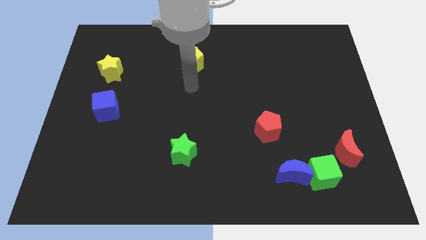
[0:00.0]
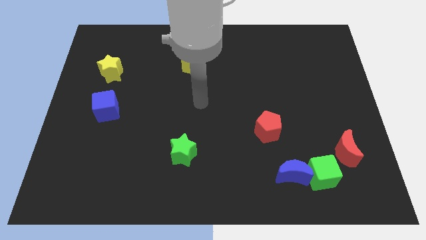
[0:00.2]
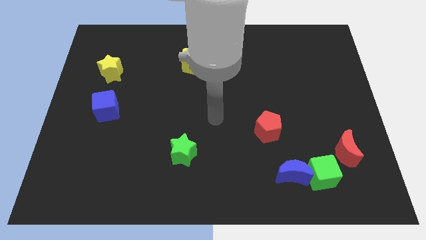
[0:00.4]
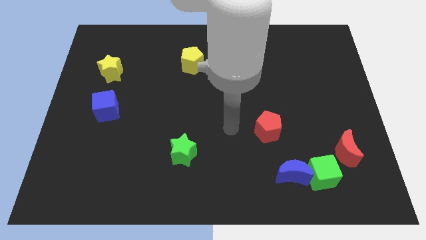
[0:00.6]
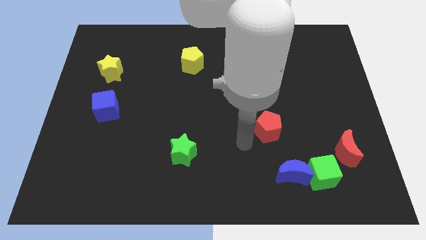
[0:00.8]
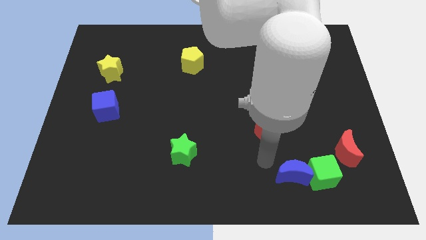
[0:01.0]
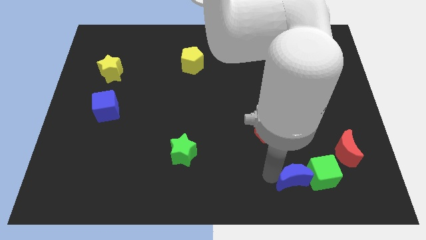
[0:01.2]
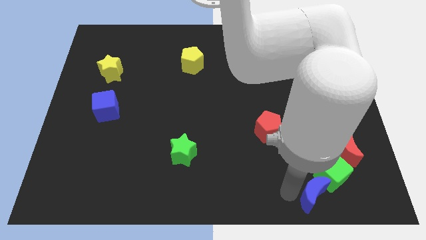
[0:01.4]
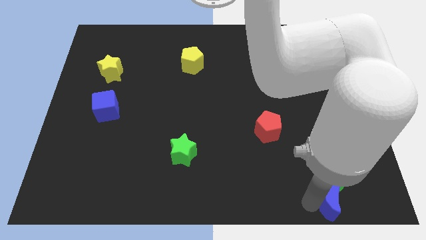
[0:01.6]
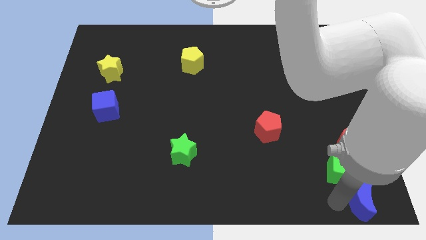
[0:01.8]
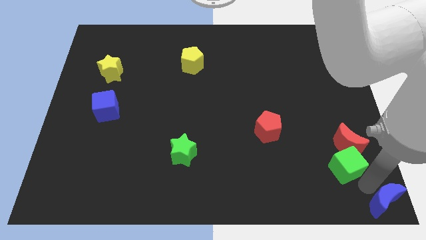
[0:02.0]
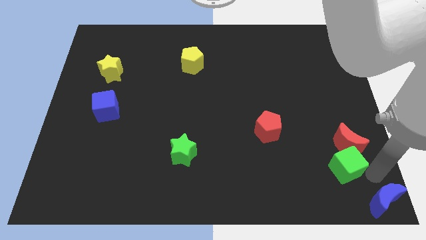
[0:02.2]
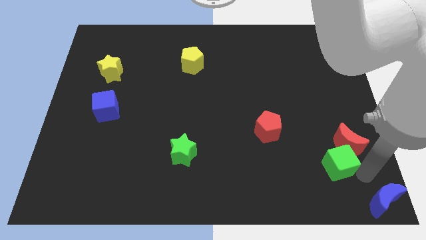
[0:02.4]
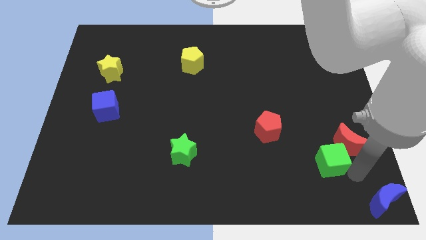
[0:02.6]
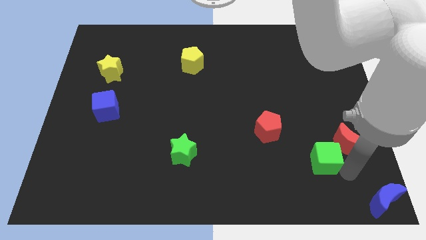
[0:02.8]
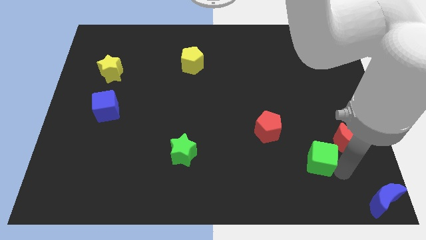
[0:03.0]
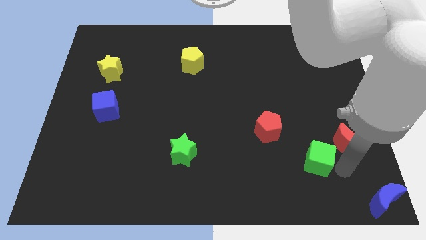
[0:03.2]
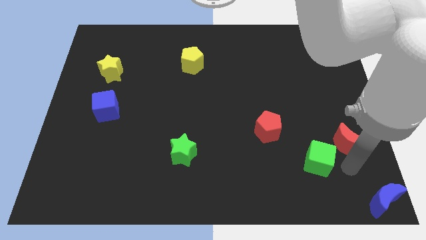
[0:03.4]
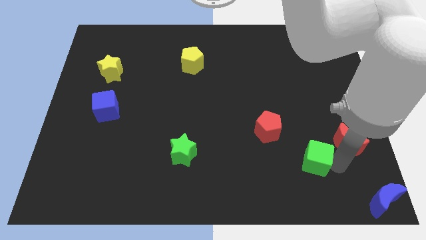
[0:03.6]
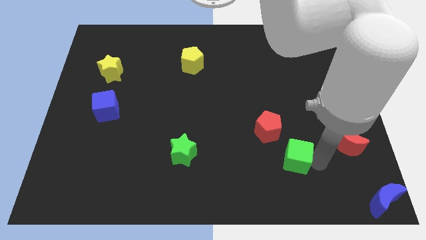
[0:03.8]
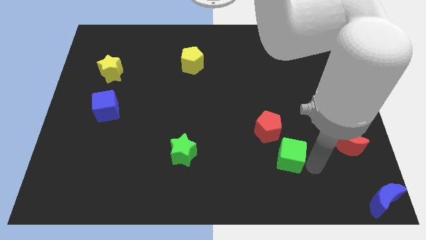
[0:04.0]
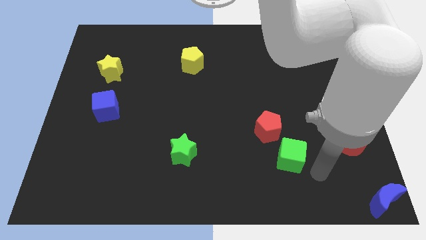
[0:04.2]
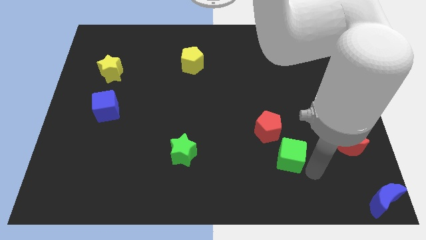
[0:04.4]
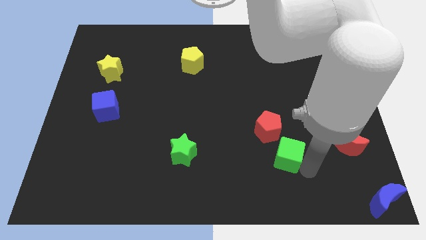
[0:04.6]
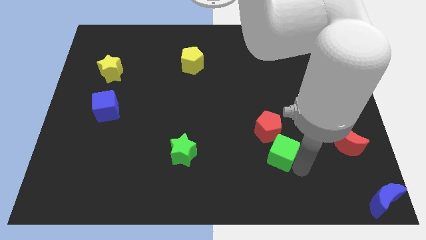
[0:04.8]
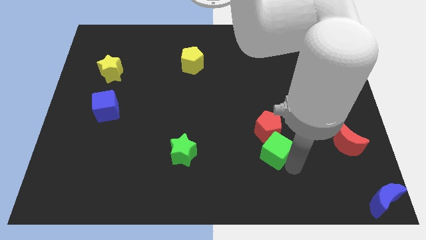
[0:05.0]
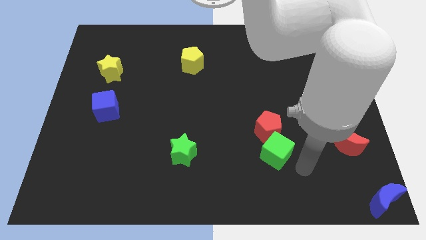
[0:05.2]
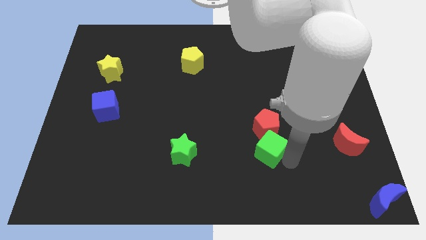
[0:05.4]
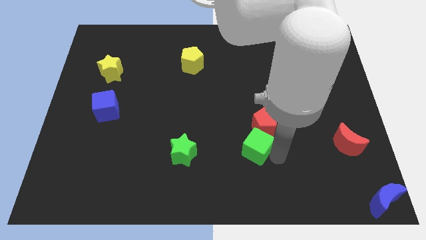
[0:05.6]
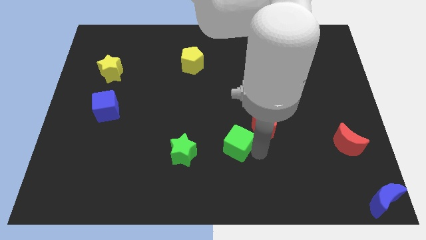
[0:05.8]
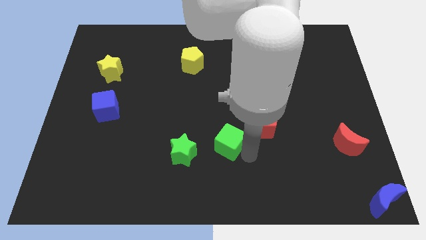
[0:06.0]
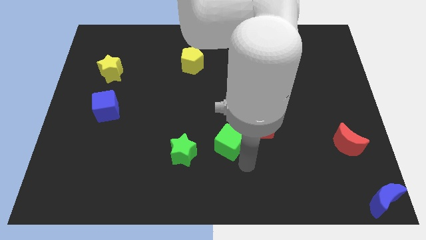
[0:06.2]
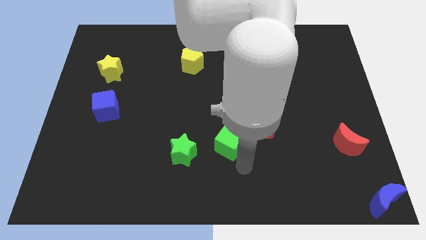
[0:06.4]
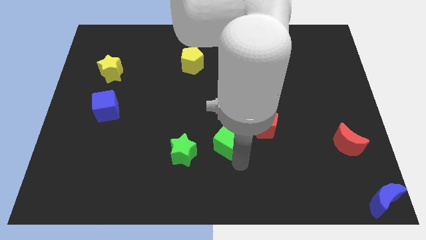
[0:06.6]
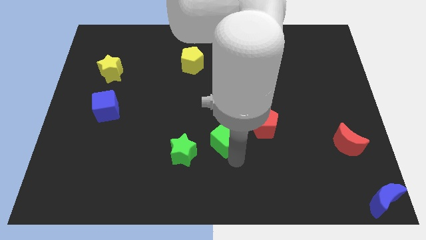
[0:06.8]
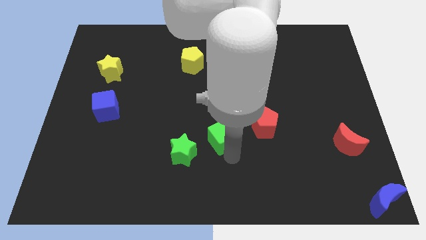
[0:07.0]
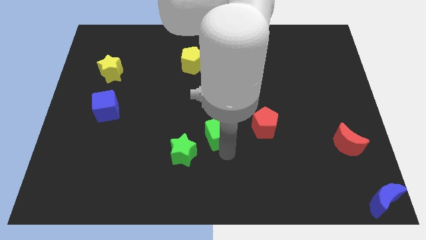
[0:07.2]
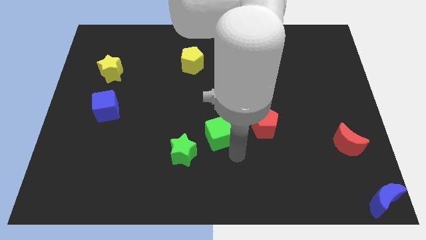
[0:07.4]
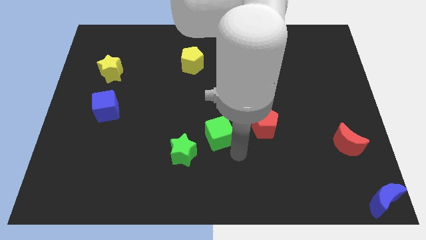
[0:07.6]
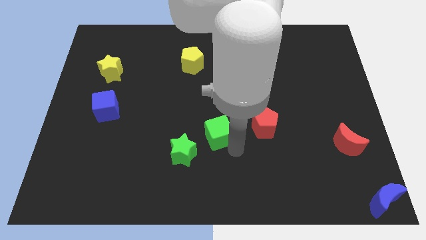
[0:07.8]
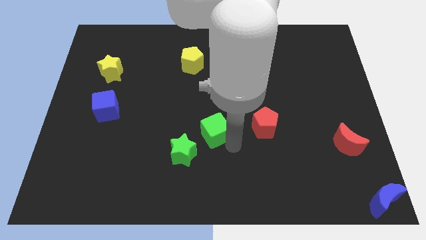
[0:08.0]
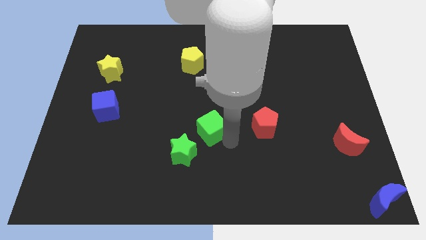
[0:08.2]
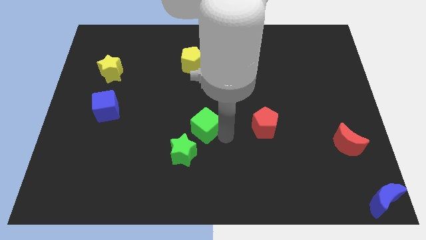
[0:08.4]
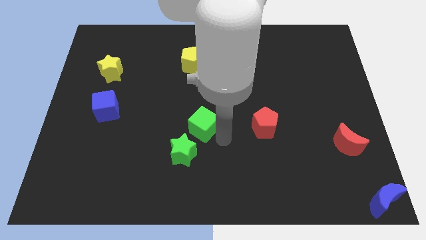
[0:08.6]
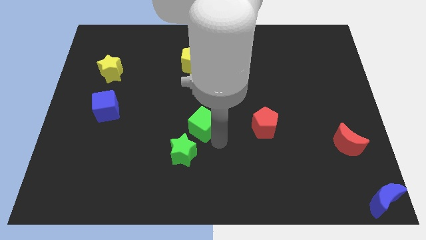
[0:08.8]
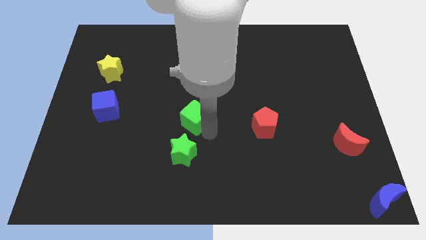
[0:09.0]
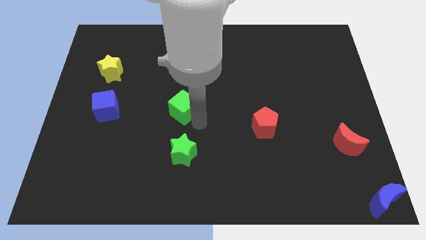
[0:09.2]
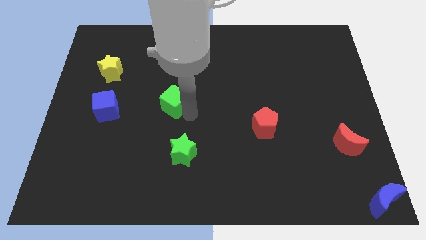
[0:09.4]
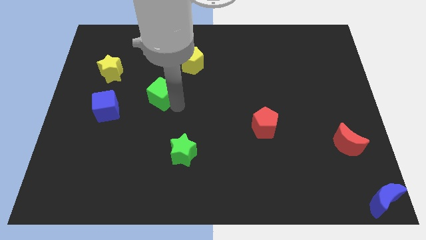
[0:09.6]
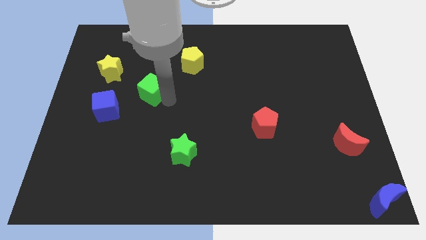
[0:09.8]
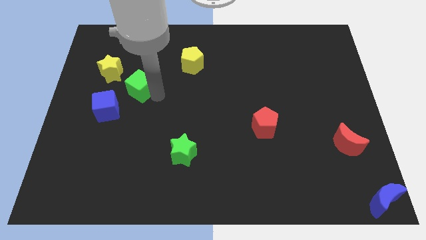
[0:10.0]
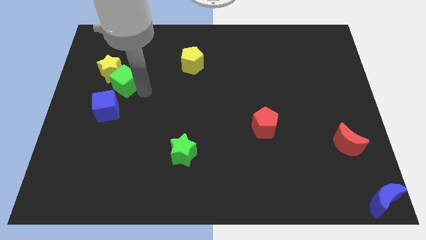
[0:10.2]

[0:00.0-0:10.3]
move the green cube towards the yellow star

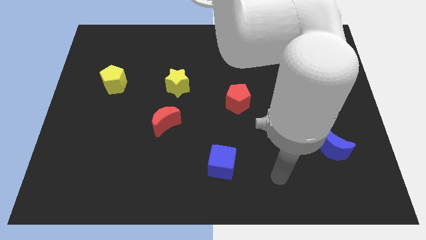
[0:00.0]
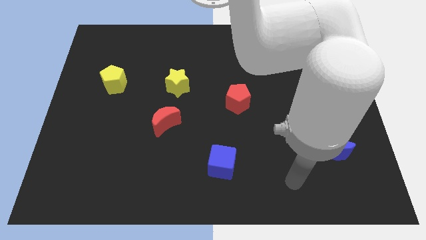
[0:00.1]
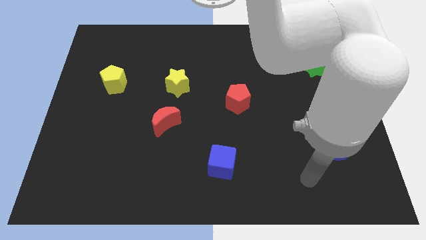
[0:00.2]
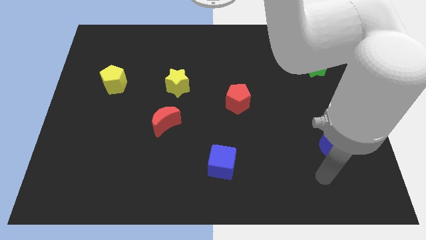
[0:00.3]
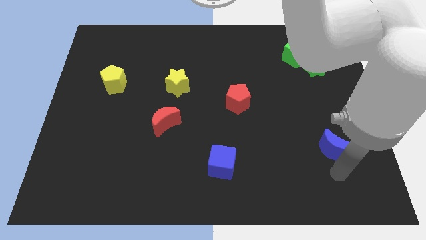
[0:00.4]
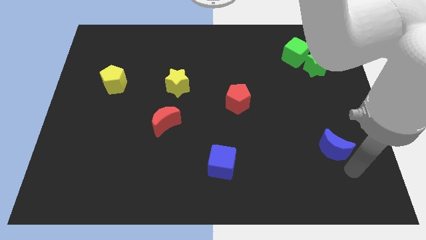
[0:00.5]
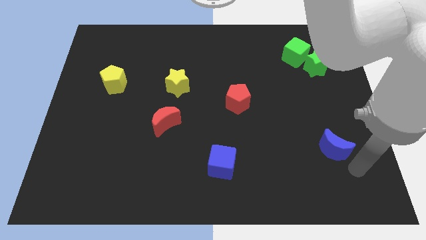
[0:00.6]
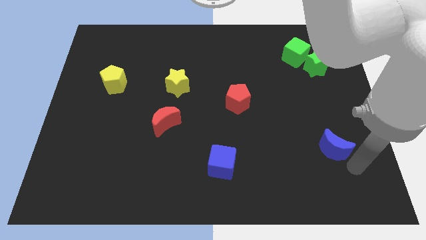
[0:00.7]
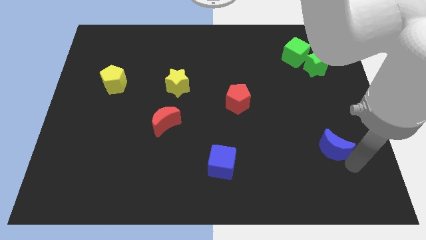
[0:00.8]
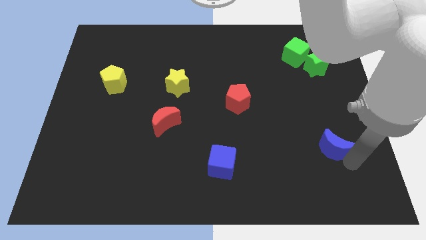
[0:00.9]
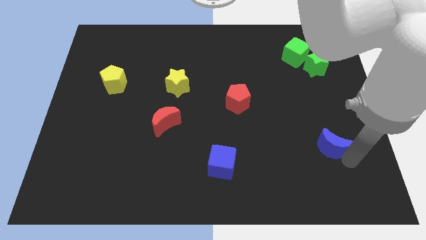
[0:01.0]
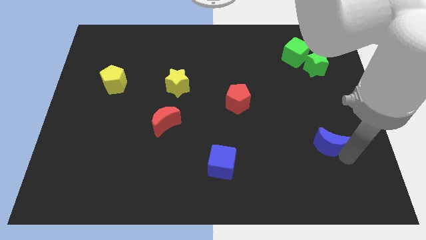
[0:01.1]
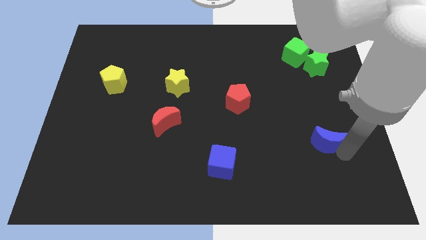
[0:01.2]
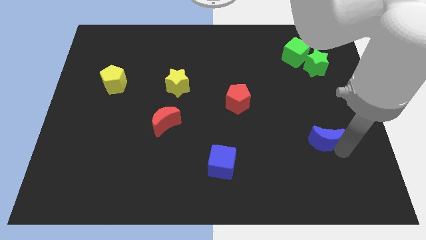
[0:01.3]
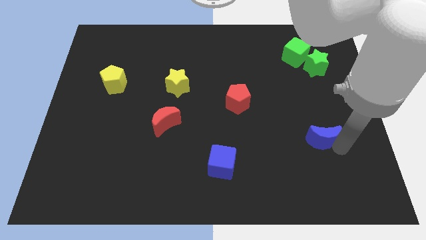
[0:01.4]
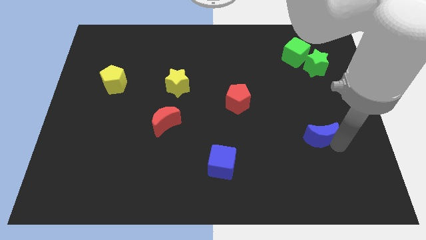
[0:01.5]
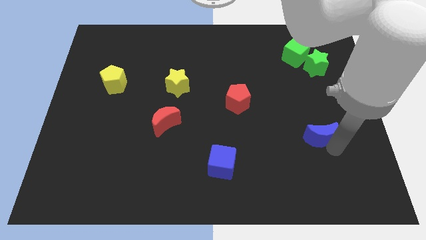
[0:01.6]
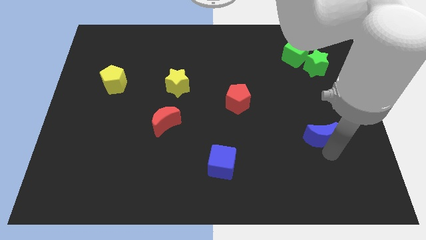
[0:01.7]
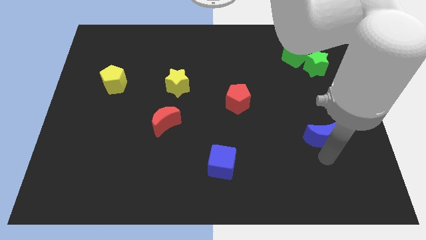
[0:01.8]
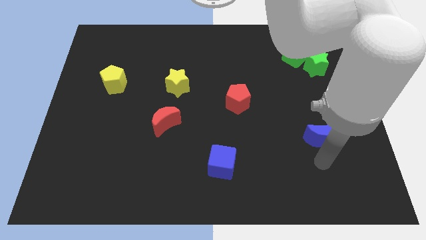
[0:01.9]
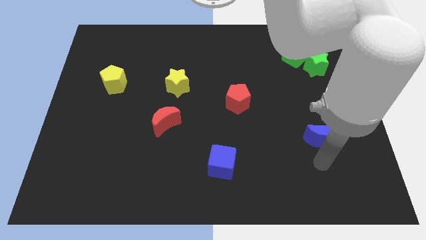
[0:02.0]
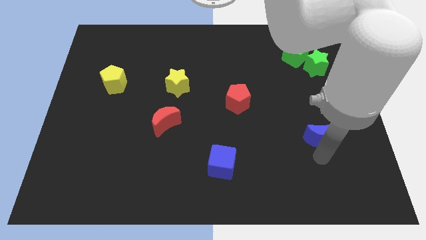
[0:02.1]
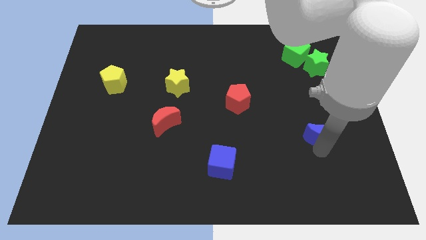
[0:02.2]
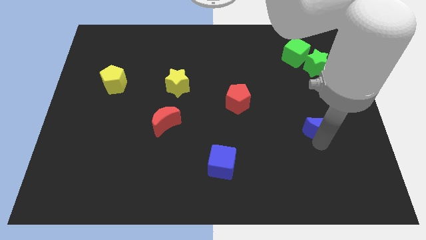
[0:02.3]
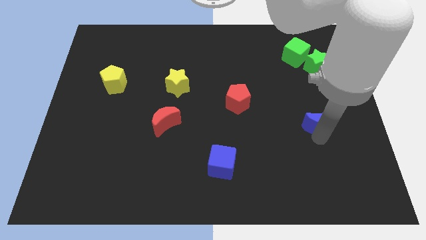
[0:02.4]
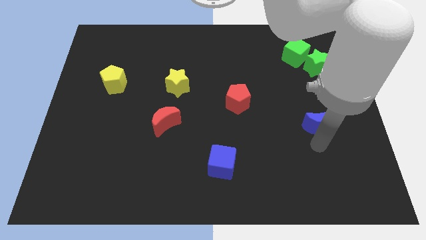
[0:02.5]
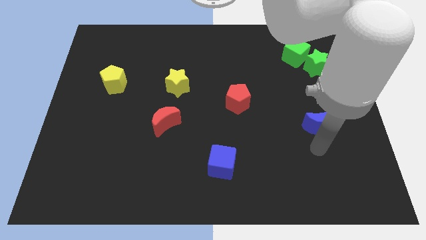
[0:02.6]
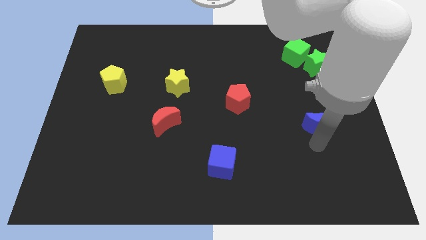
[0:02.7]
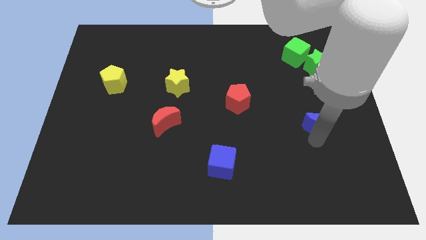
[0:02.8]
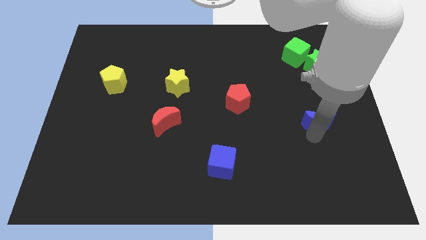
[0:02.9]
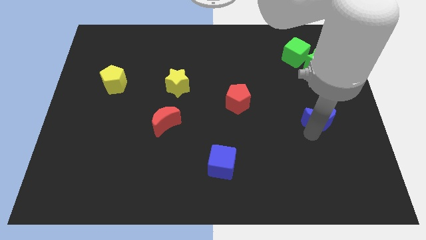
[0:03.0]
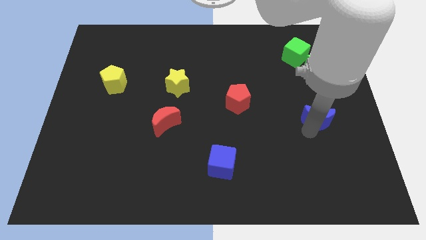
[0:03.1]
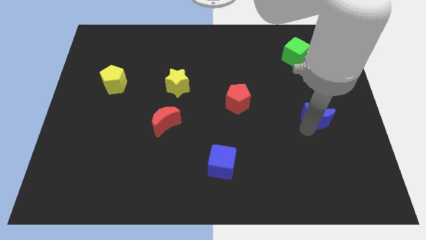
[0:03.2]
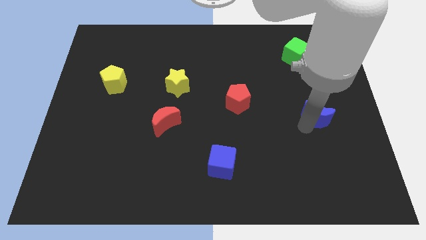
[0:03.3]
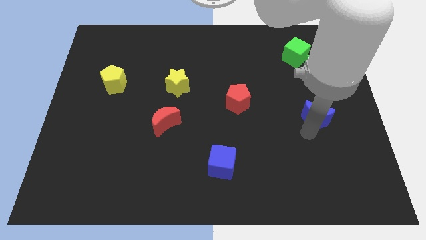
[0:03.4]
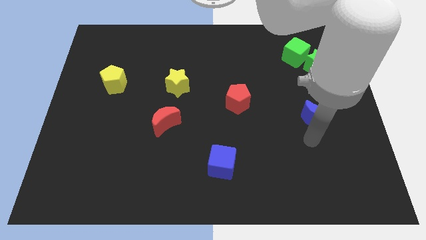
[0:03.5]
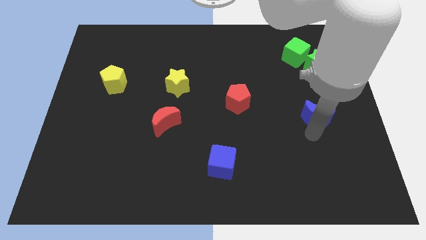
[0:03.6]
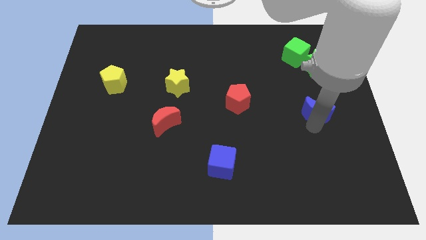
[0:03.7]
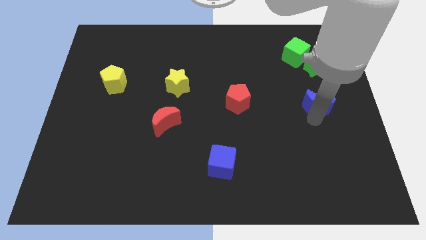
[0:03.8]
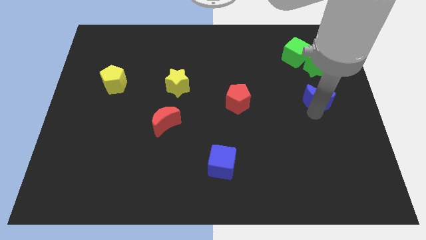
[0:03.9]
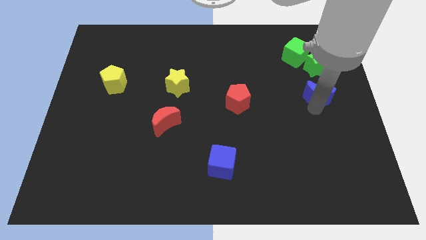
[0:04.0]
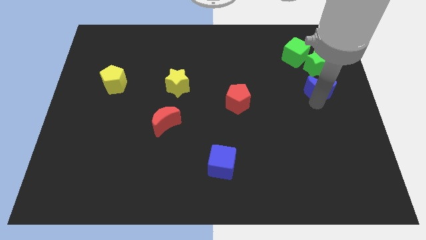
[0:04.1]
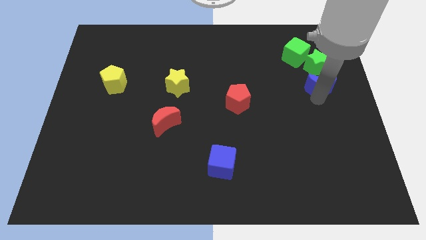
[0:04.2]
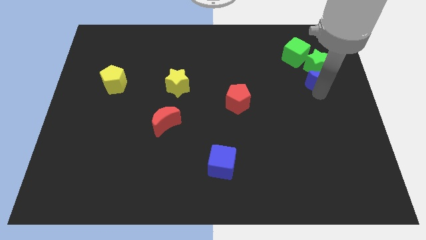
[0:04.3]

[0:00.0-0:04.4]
move the blue moon to the green star
